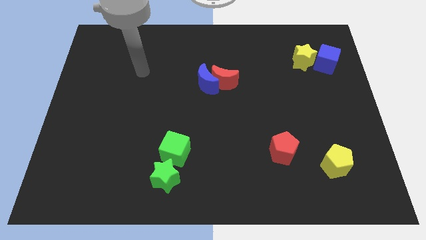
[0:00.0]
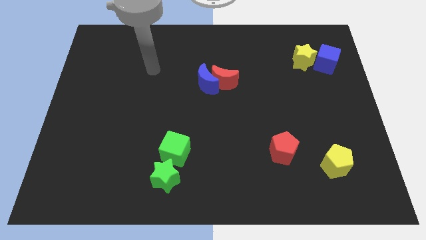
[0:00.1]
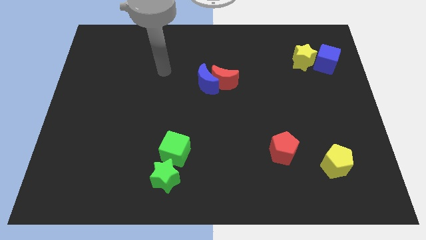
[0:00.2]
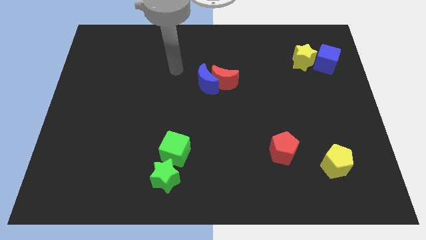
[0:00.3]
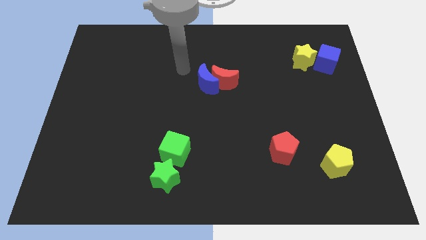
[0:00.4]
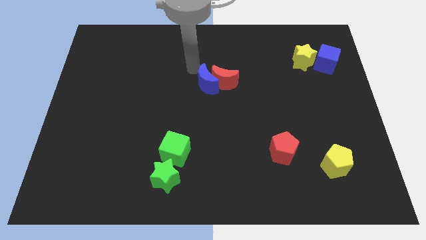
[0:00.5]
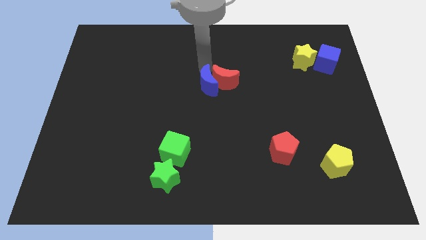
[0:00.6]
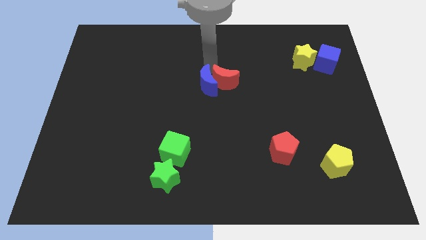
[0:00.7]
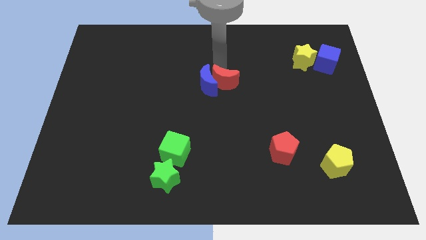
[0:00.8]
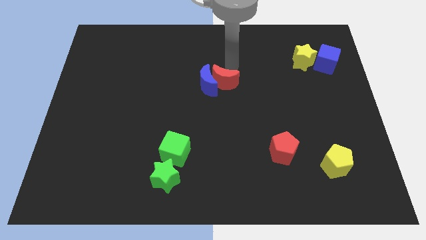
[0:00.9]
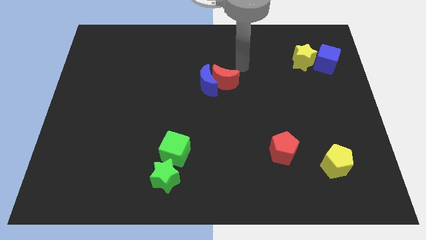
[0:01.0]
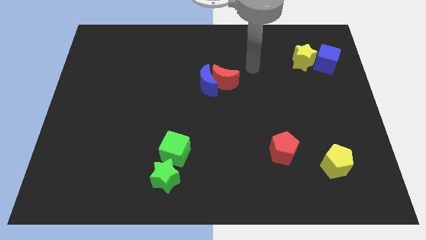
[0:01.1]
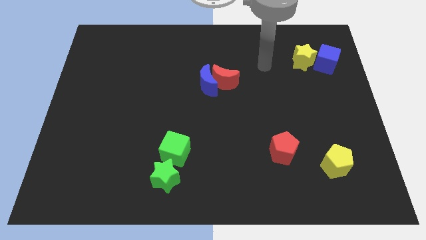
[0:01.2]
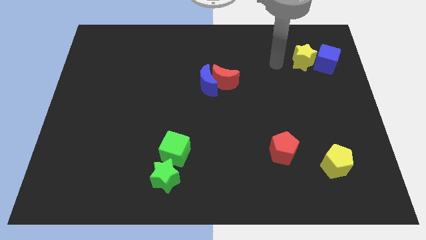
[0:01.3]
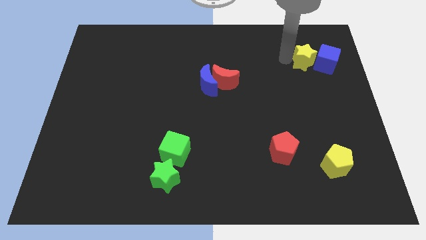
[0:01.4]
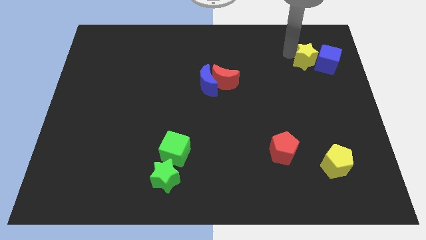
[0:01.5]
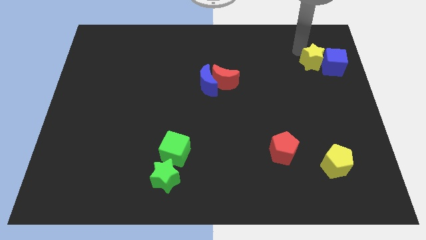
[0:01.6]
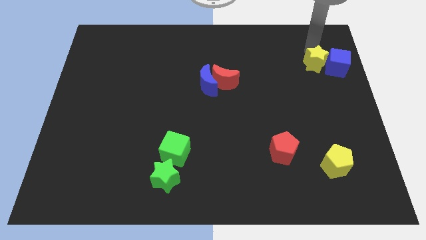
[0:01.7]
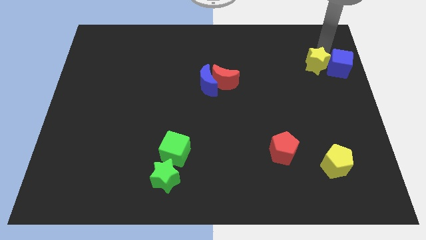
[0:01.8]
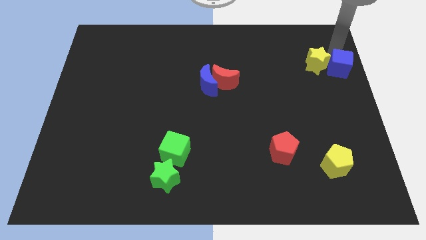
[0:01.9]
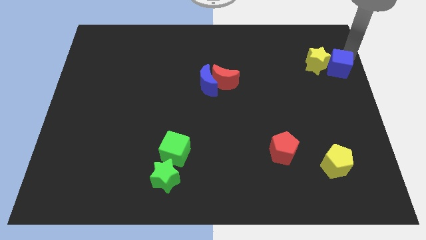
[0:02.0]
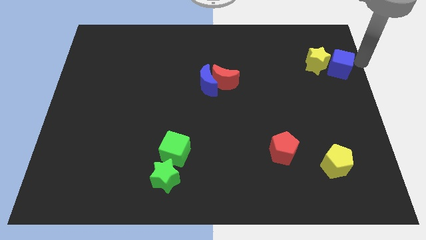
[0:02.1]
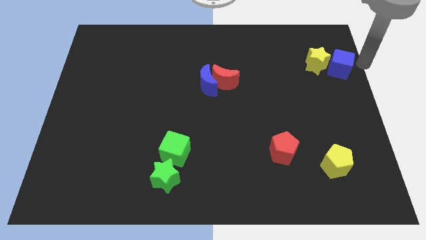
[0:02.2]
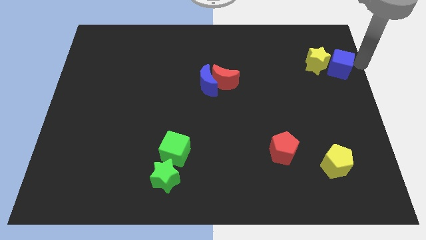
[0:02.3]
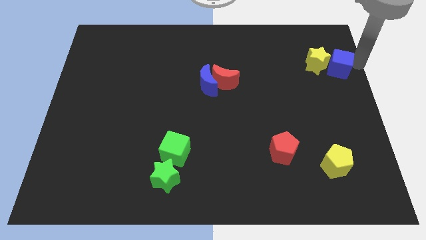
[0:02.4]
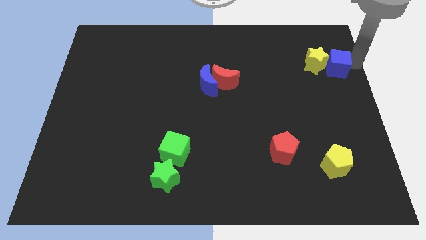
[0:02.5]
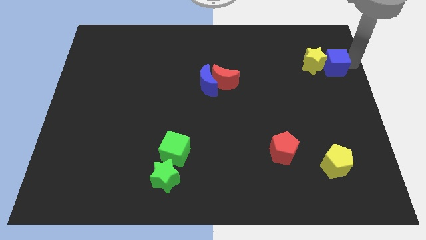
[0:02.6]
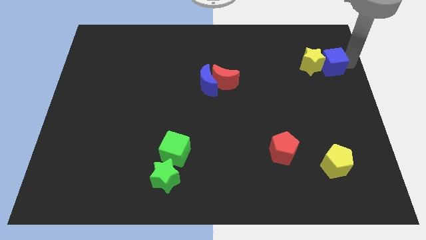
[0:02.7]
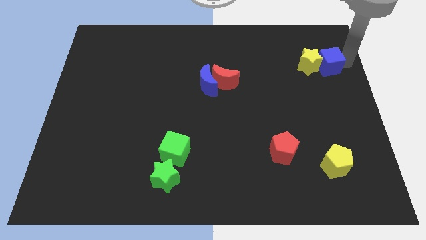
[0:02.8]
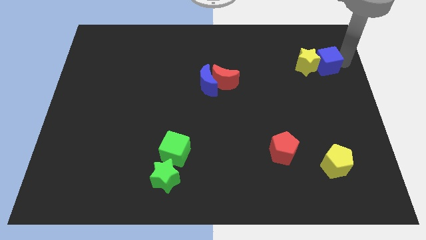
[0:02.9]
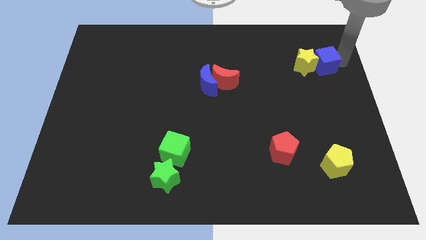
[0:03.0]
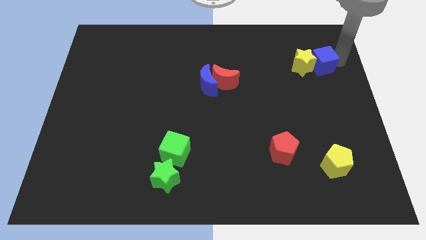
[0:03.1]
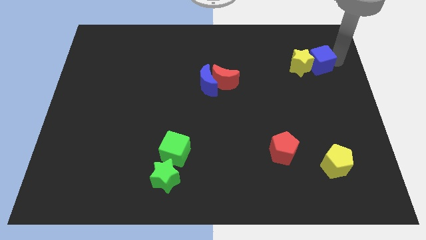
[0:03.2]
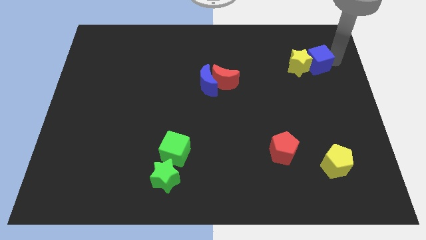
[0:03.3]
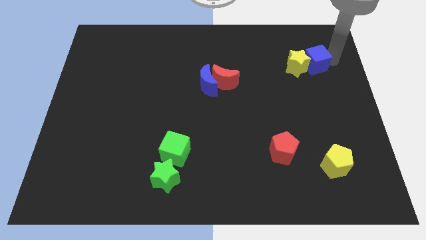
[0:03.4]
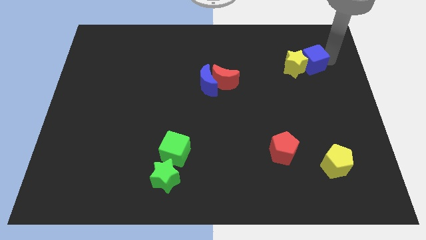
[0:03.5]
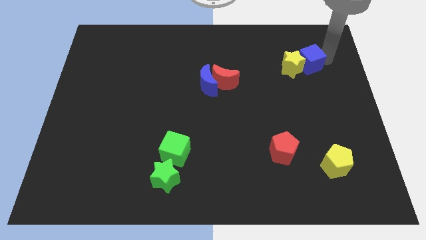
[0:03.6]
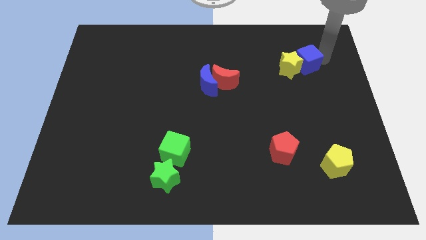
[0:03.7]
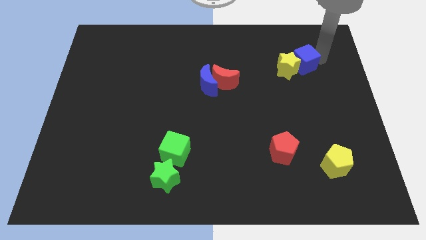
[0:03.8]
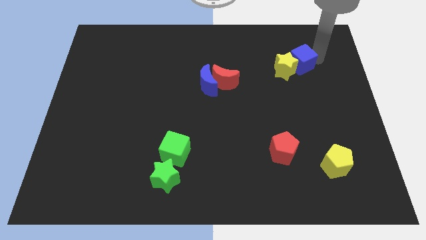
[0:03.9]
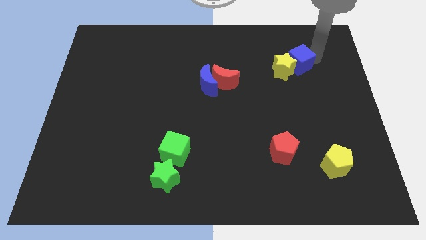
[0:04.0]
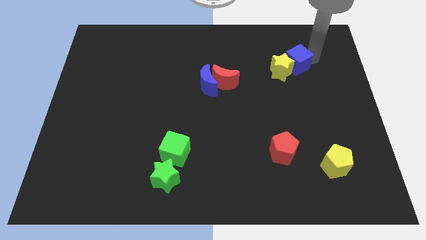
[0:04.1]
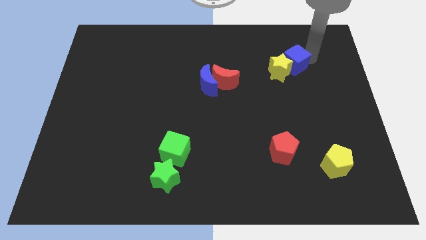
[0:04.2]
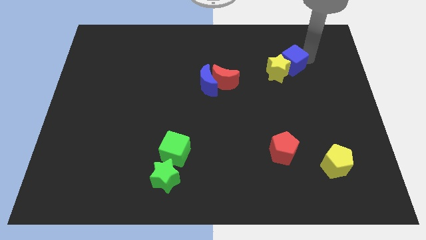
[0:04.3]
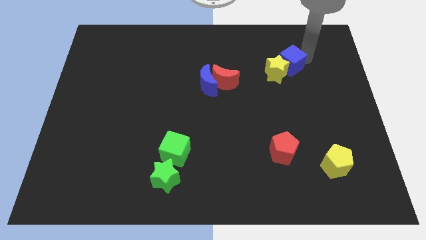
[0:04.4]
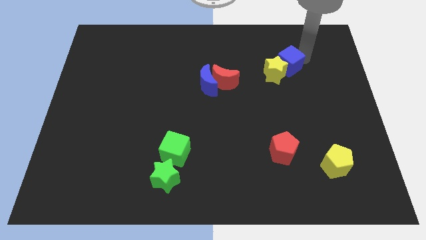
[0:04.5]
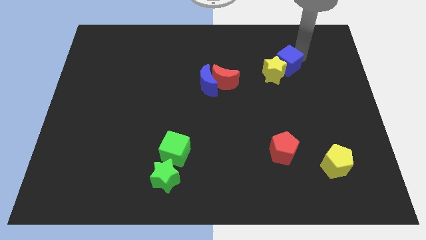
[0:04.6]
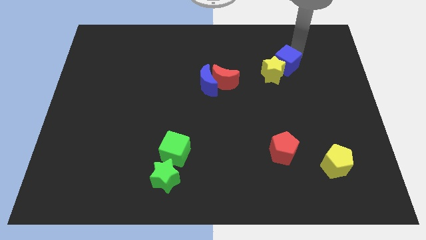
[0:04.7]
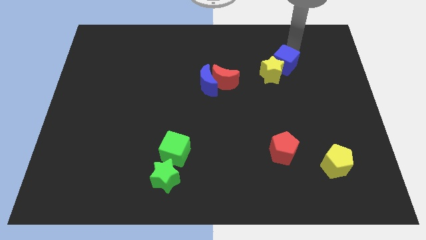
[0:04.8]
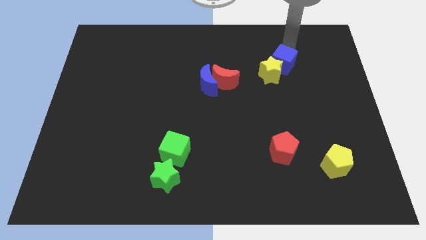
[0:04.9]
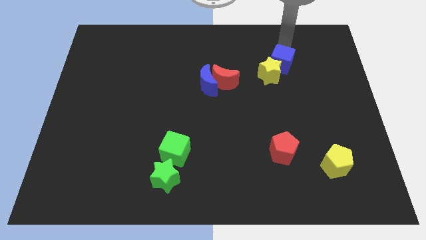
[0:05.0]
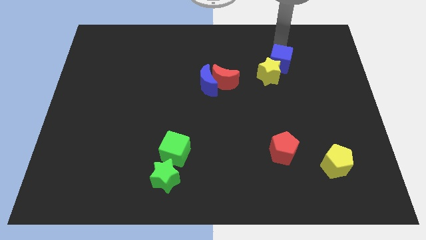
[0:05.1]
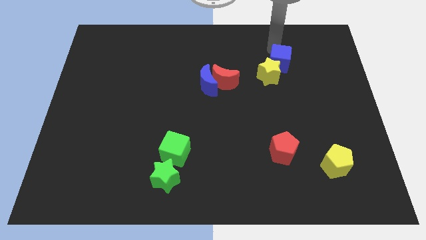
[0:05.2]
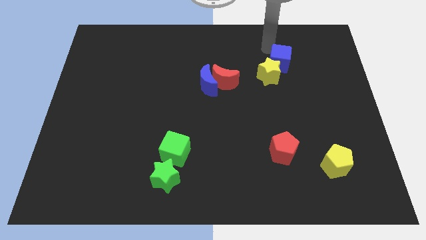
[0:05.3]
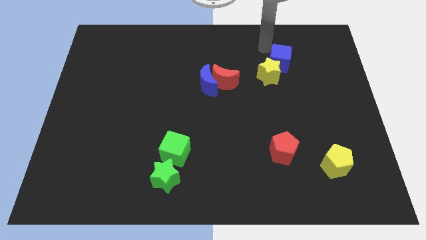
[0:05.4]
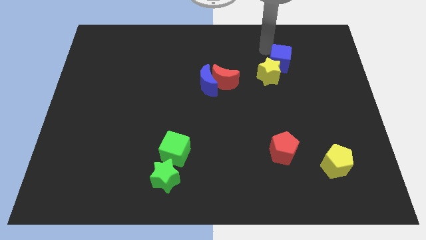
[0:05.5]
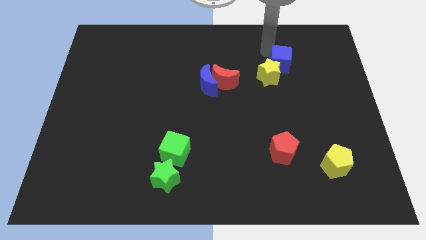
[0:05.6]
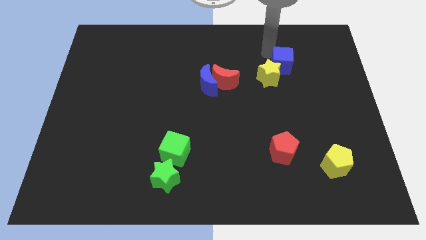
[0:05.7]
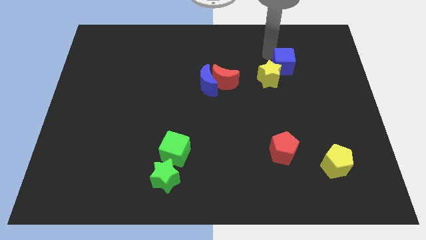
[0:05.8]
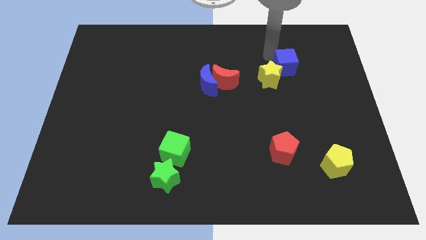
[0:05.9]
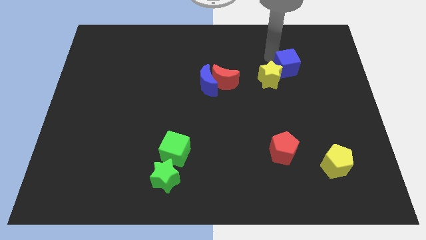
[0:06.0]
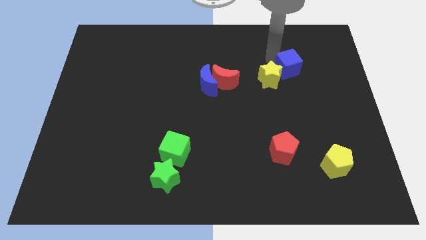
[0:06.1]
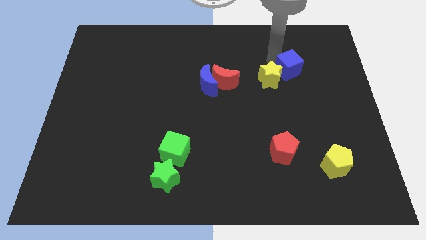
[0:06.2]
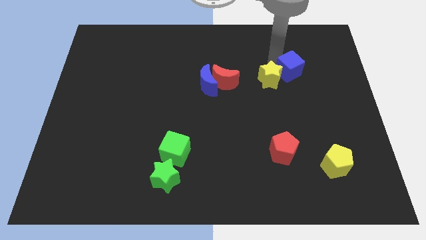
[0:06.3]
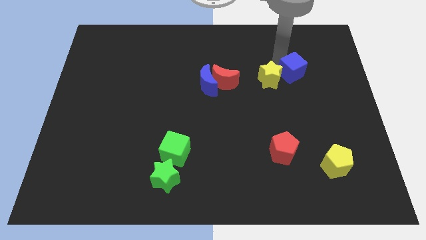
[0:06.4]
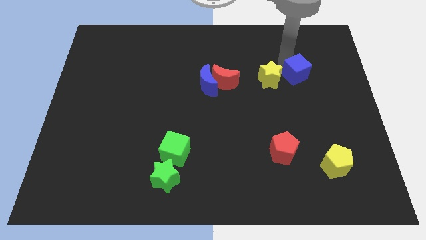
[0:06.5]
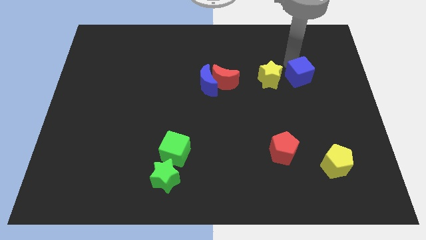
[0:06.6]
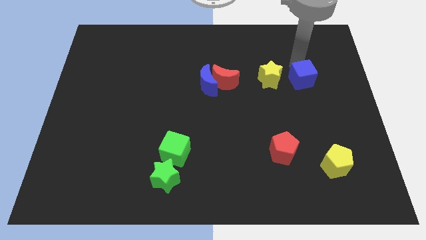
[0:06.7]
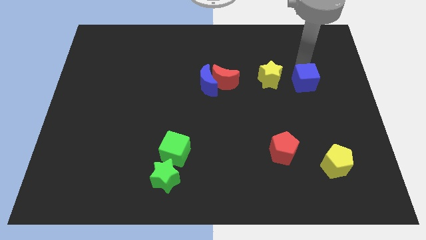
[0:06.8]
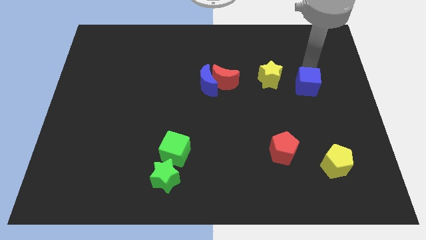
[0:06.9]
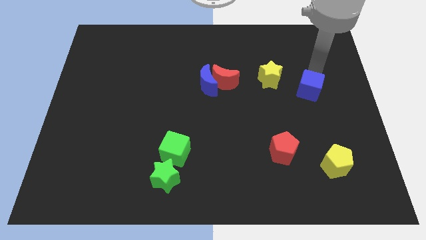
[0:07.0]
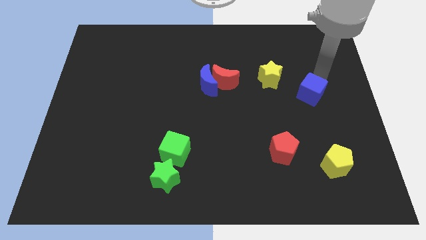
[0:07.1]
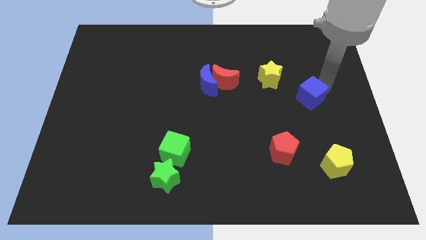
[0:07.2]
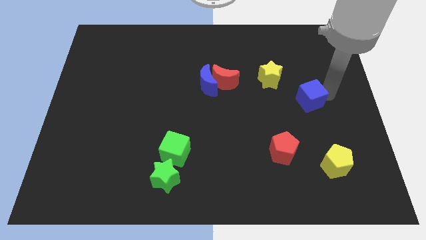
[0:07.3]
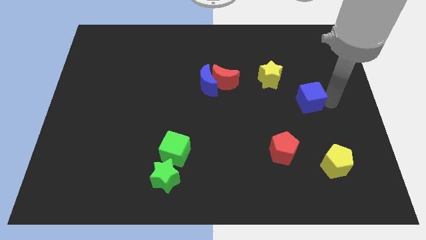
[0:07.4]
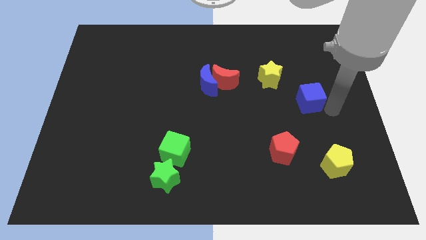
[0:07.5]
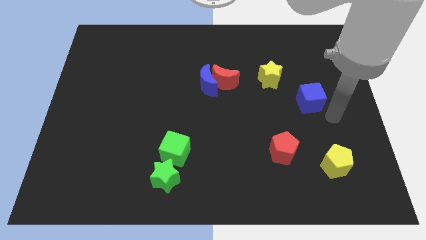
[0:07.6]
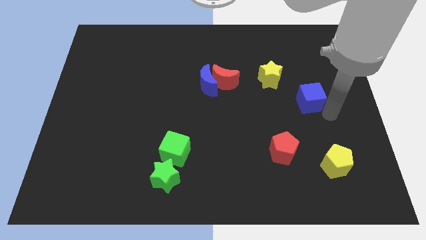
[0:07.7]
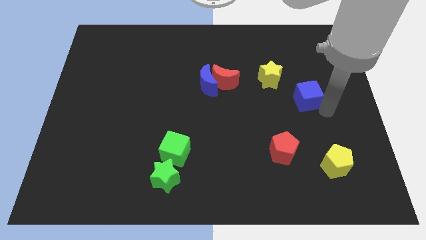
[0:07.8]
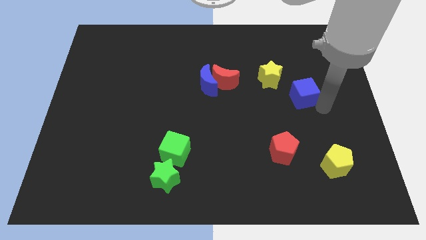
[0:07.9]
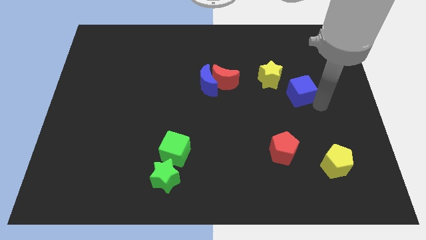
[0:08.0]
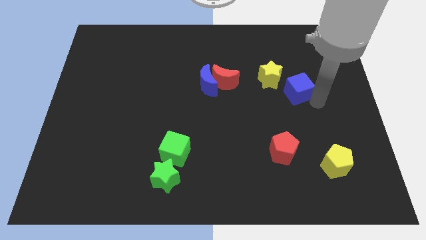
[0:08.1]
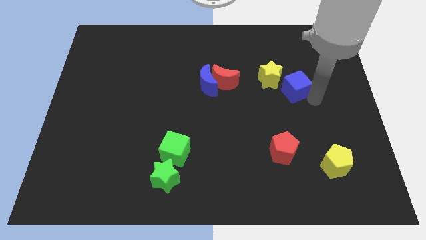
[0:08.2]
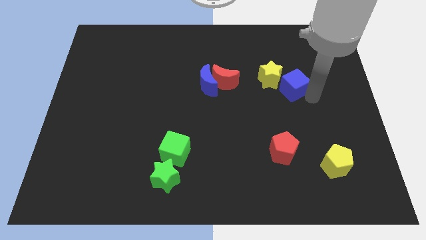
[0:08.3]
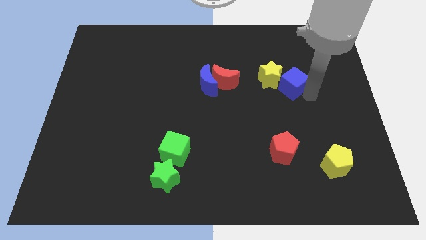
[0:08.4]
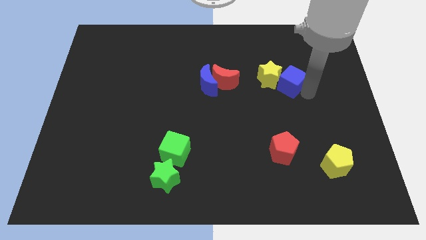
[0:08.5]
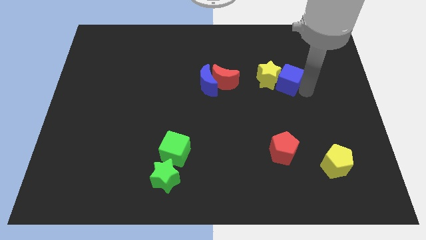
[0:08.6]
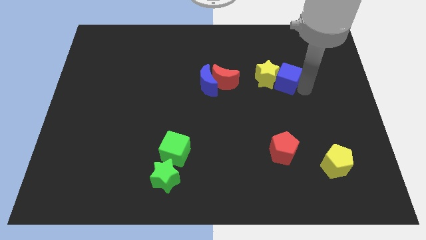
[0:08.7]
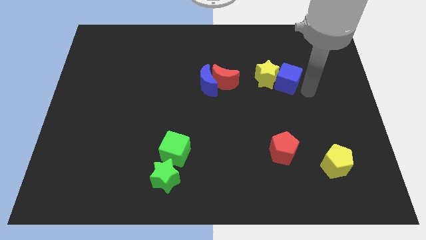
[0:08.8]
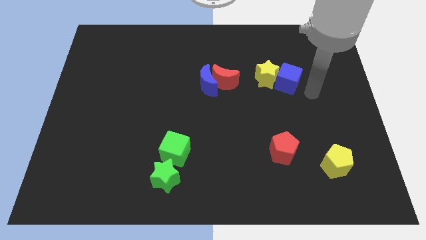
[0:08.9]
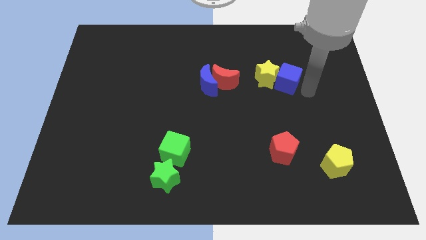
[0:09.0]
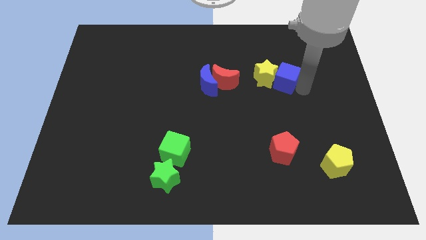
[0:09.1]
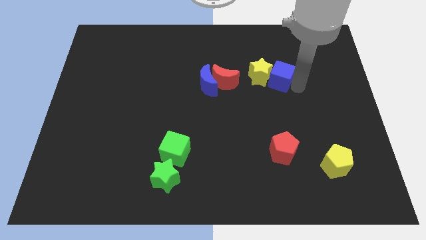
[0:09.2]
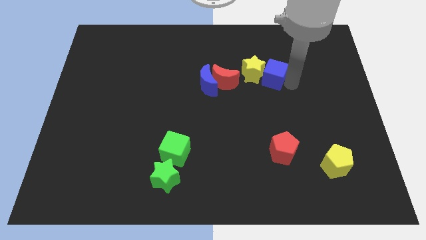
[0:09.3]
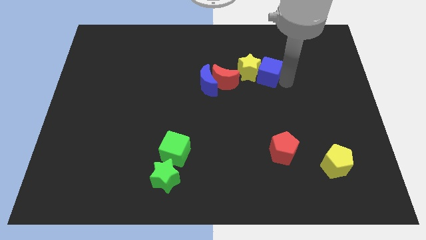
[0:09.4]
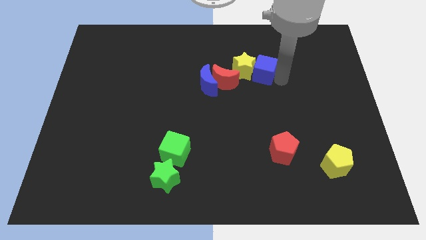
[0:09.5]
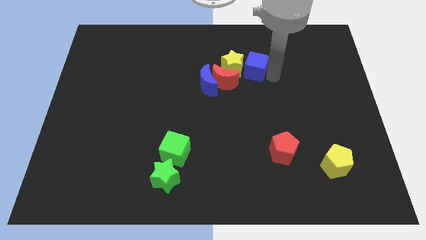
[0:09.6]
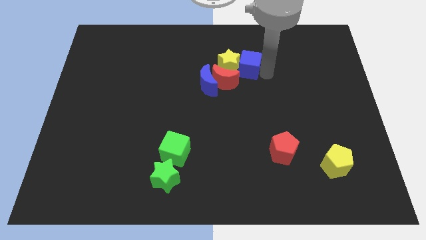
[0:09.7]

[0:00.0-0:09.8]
push the blue cube left
